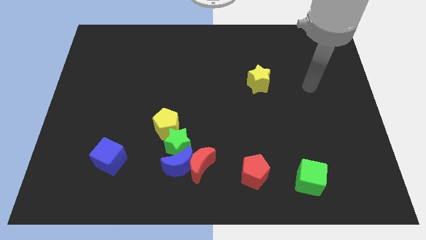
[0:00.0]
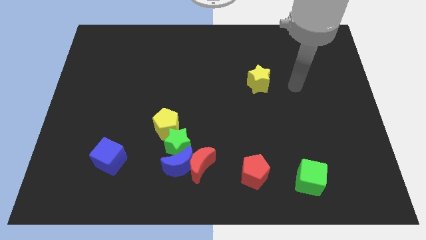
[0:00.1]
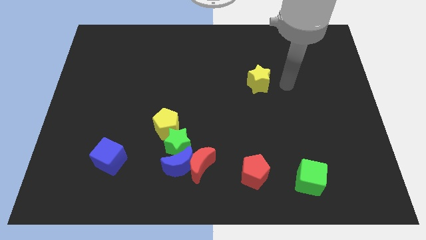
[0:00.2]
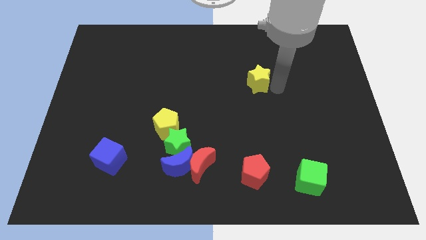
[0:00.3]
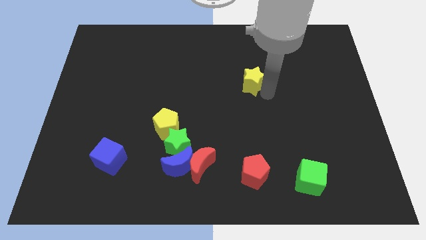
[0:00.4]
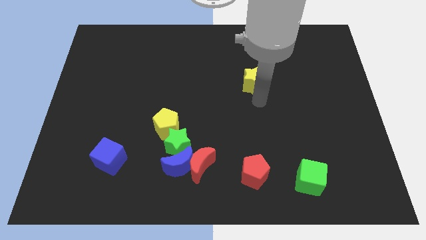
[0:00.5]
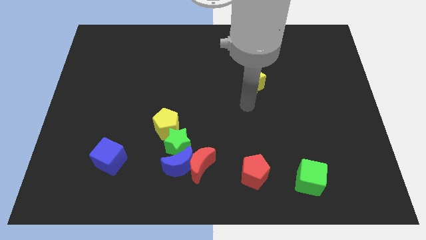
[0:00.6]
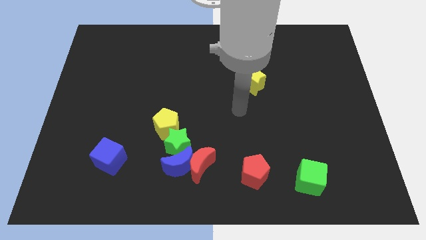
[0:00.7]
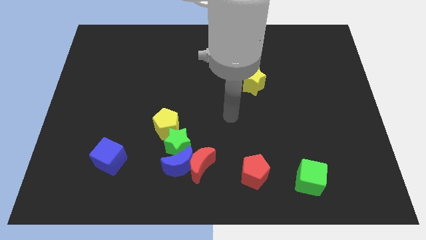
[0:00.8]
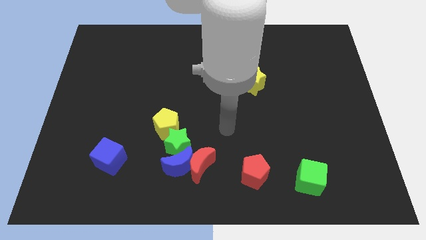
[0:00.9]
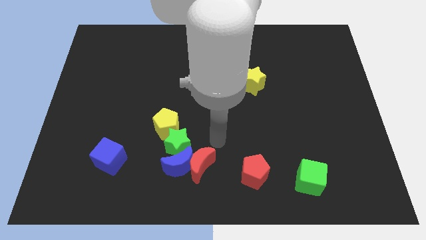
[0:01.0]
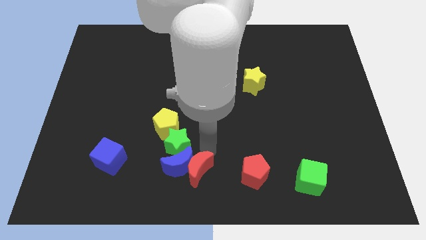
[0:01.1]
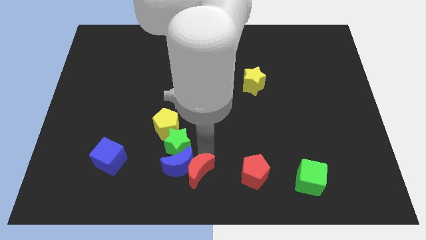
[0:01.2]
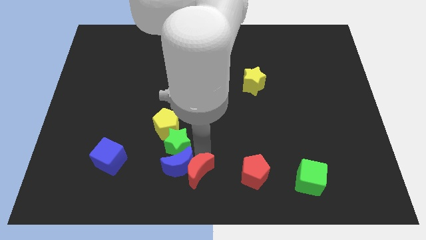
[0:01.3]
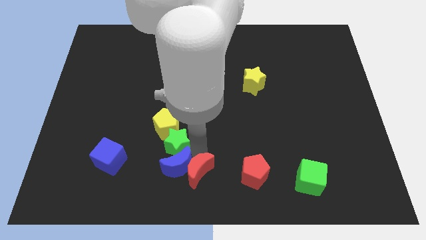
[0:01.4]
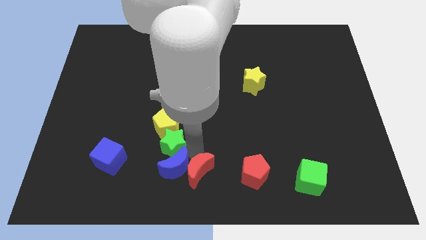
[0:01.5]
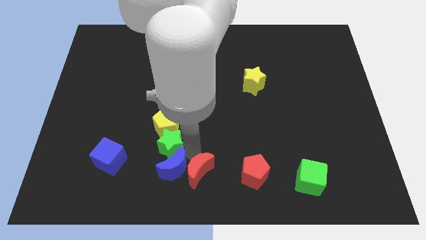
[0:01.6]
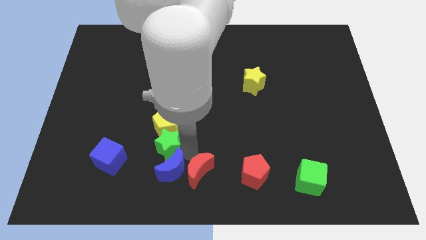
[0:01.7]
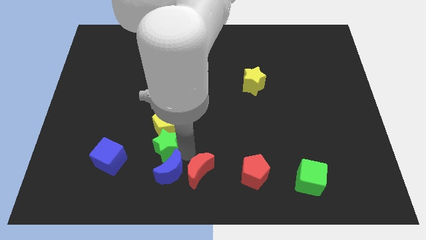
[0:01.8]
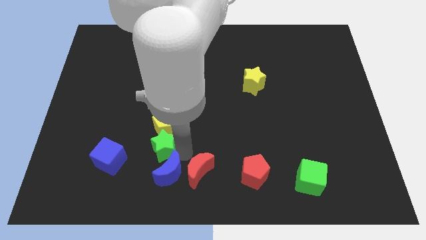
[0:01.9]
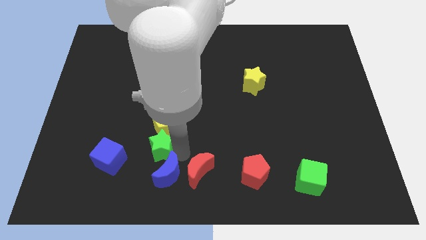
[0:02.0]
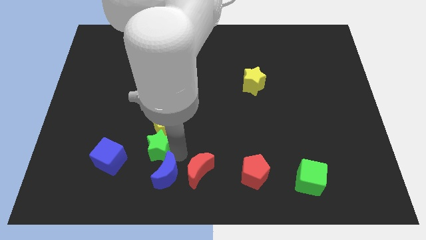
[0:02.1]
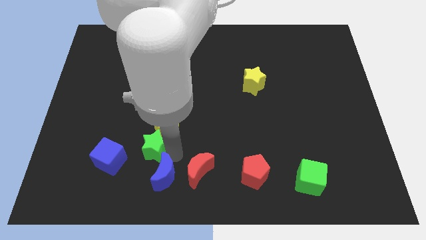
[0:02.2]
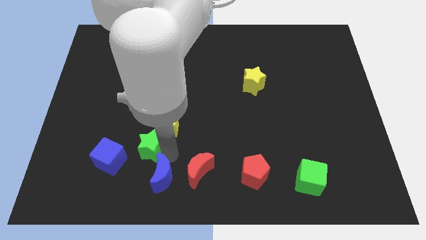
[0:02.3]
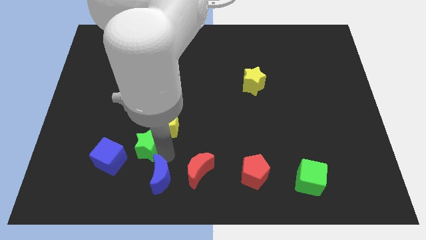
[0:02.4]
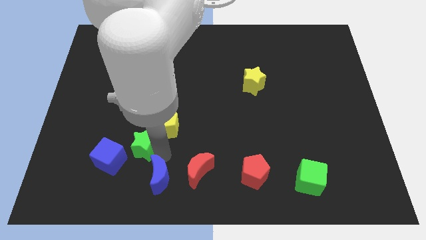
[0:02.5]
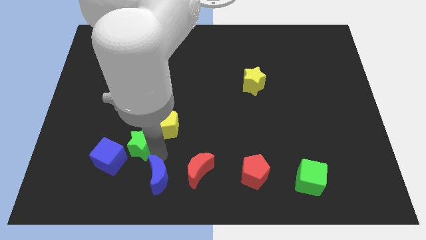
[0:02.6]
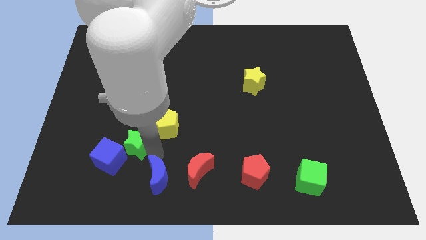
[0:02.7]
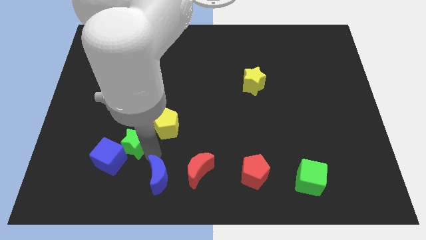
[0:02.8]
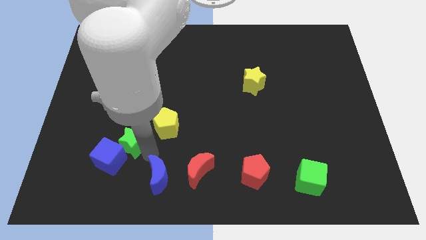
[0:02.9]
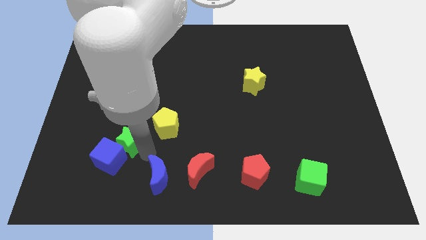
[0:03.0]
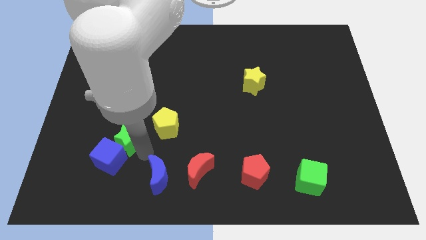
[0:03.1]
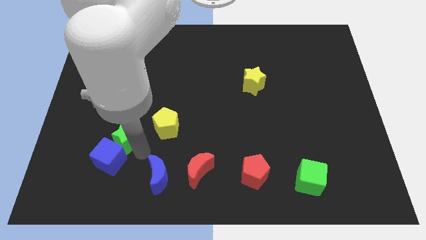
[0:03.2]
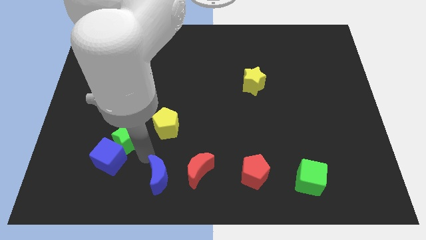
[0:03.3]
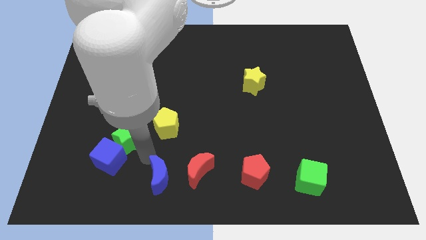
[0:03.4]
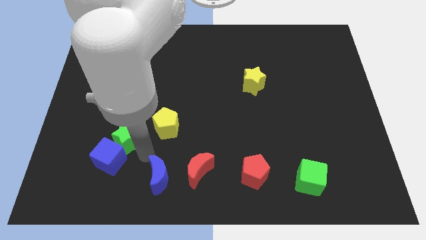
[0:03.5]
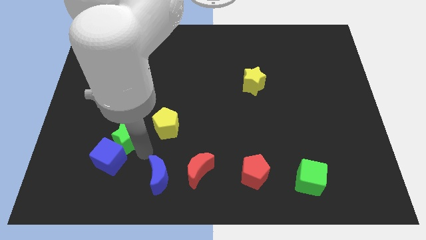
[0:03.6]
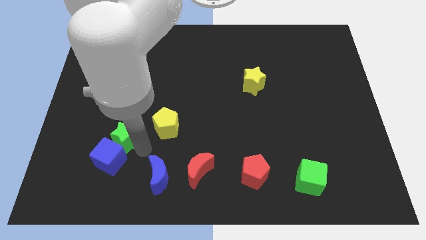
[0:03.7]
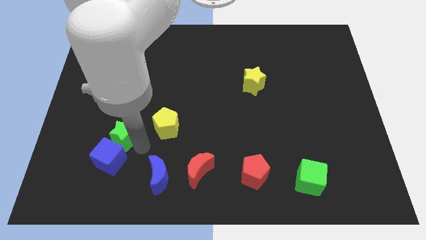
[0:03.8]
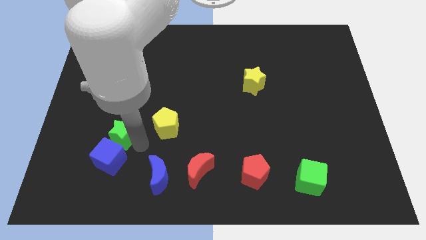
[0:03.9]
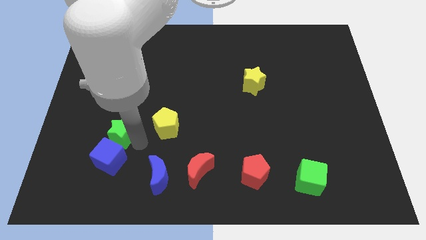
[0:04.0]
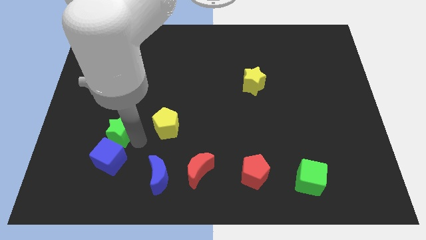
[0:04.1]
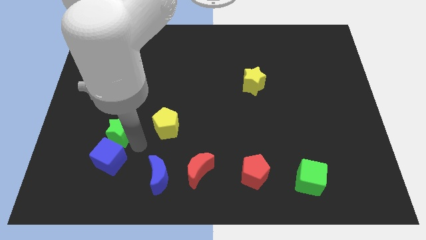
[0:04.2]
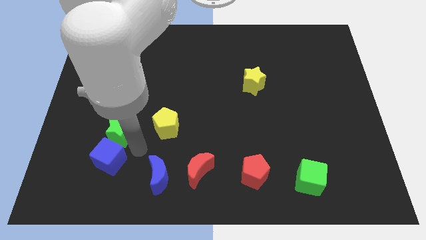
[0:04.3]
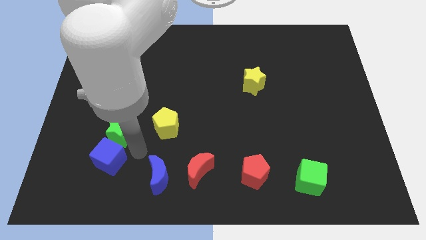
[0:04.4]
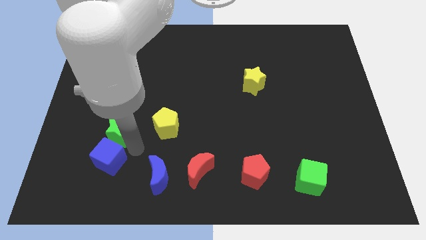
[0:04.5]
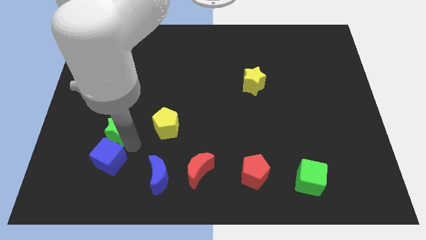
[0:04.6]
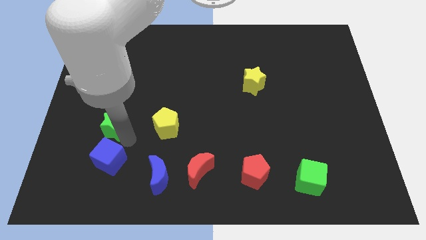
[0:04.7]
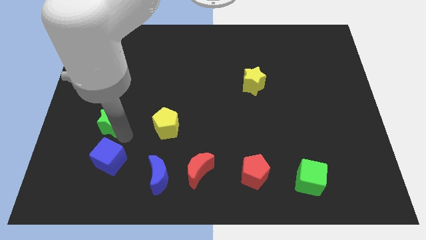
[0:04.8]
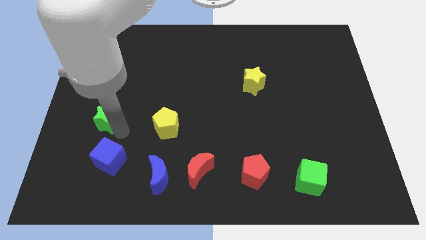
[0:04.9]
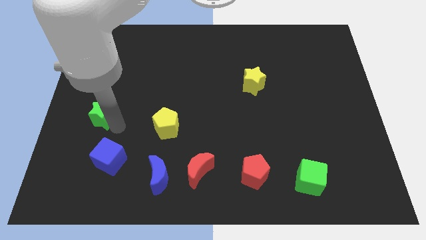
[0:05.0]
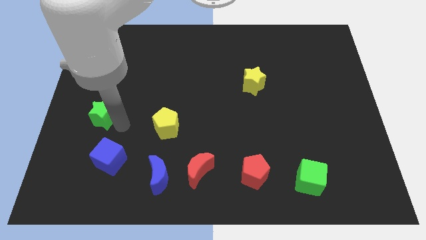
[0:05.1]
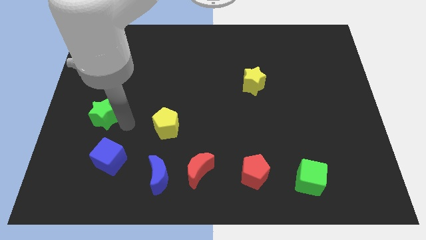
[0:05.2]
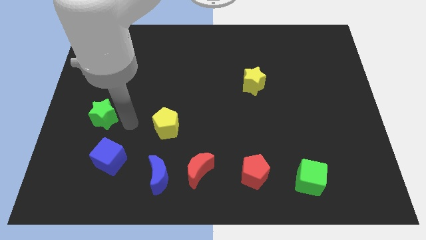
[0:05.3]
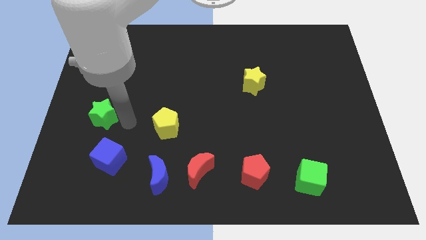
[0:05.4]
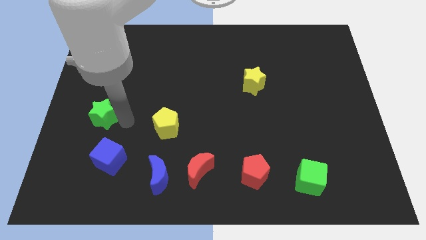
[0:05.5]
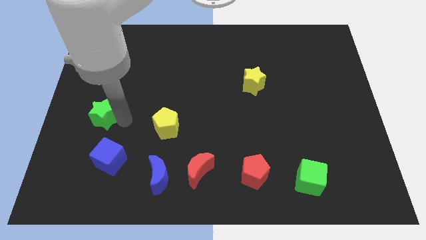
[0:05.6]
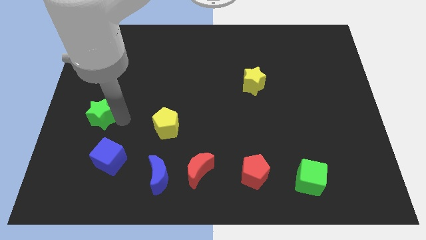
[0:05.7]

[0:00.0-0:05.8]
put the green star to the left side

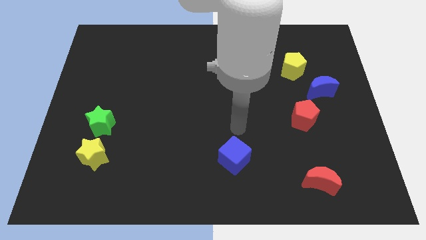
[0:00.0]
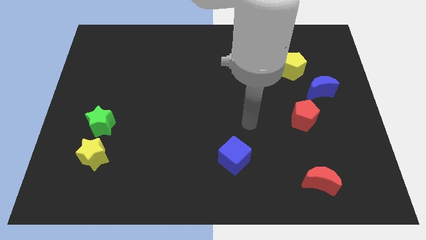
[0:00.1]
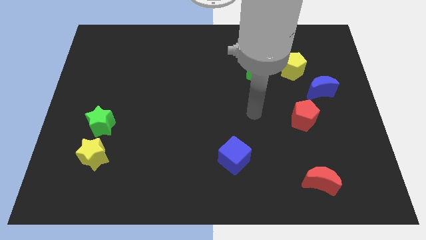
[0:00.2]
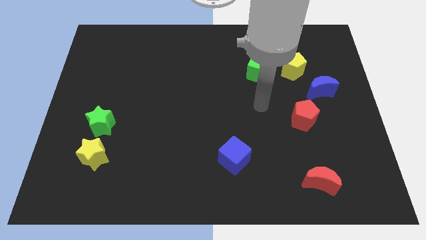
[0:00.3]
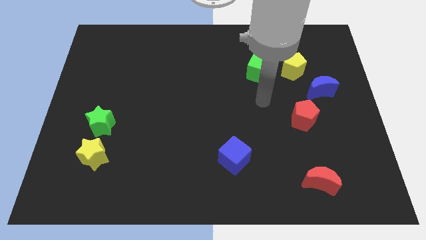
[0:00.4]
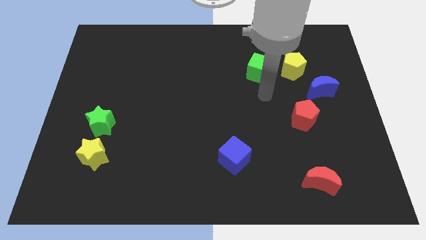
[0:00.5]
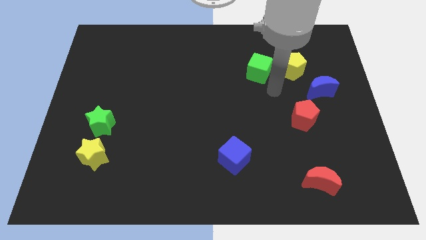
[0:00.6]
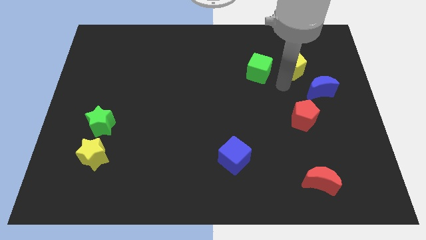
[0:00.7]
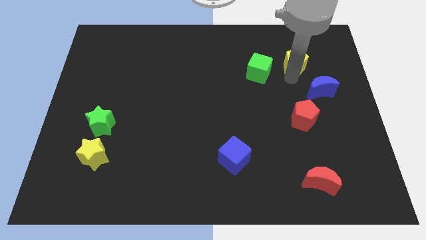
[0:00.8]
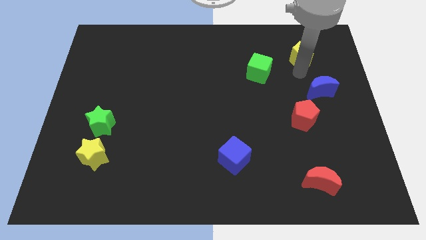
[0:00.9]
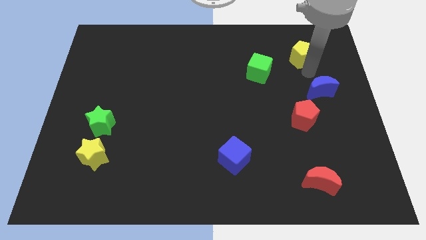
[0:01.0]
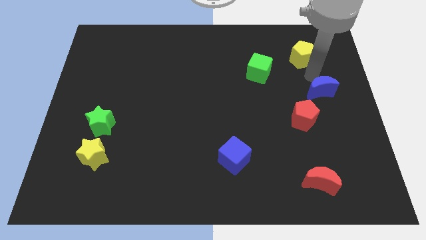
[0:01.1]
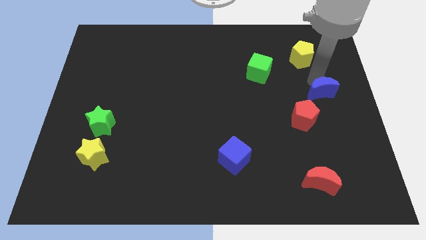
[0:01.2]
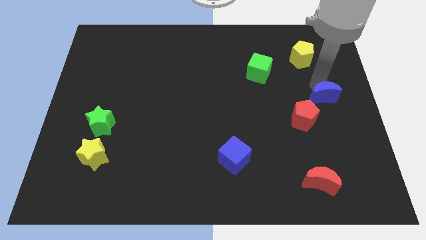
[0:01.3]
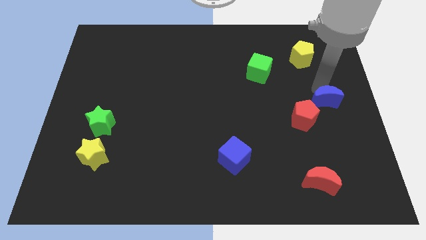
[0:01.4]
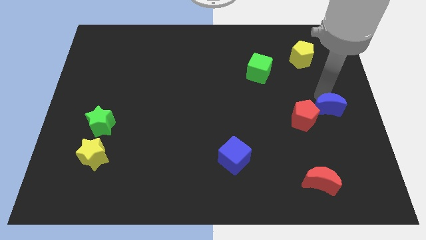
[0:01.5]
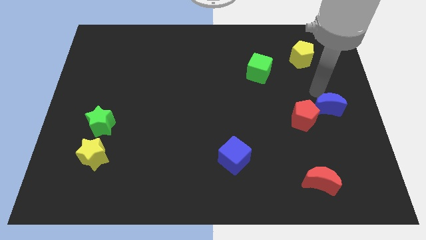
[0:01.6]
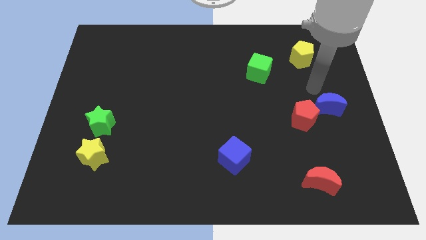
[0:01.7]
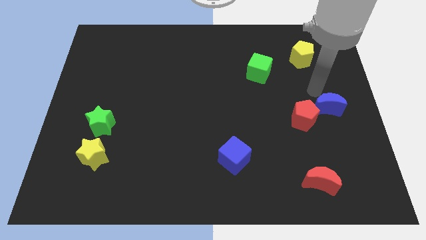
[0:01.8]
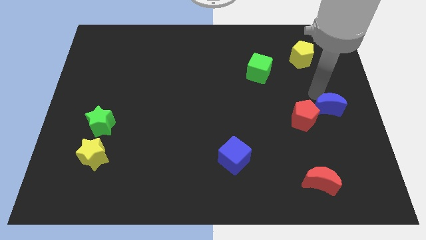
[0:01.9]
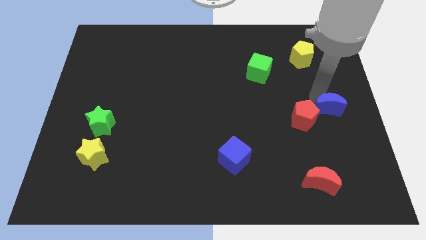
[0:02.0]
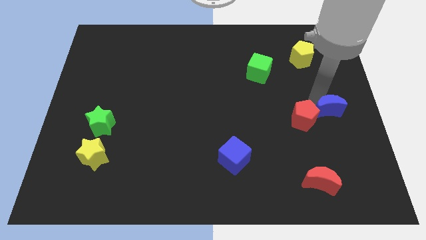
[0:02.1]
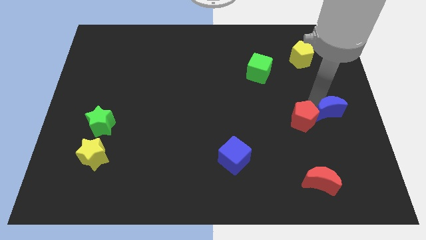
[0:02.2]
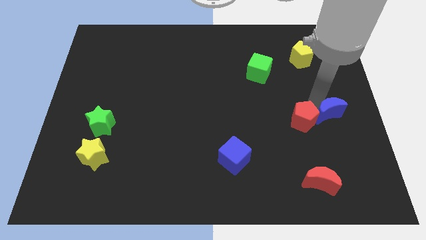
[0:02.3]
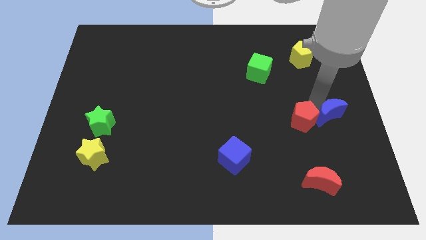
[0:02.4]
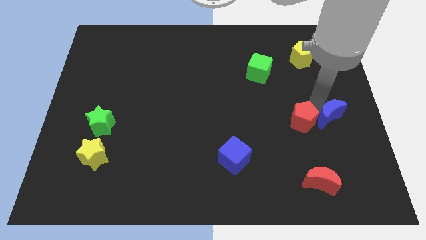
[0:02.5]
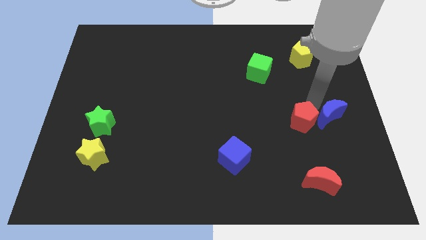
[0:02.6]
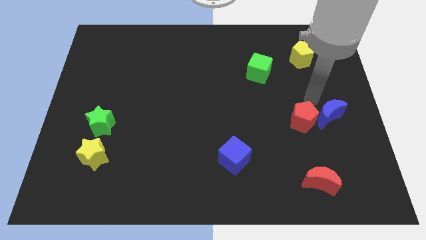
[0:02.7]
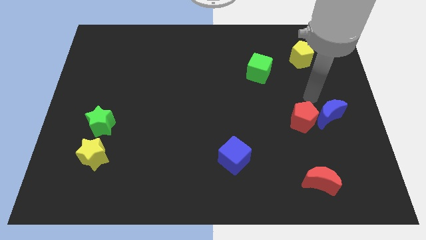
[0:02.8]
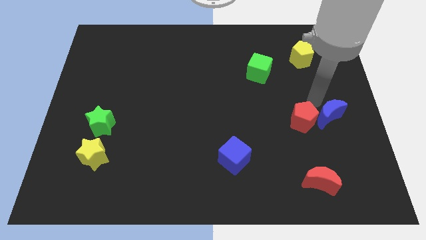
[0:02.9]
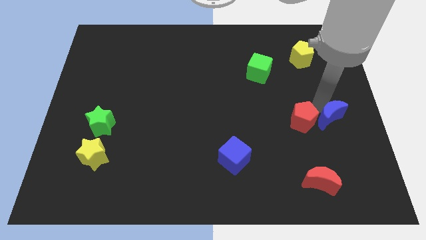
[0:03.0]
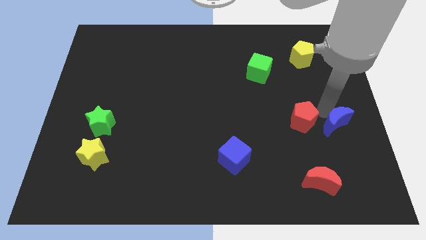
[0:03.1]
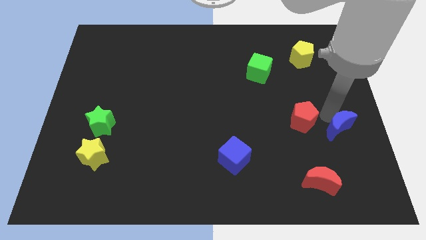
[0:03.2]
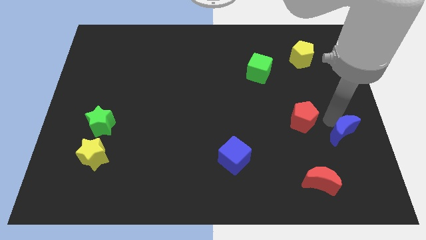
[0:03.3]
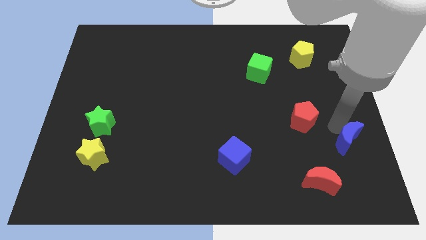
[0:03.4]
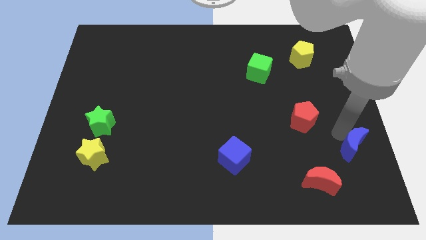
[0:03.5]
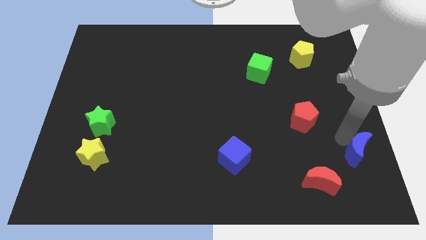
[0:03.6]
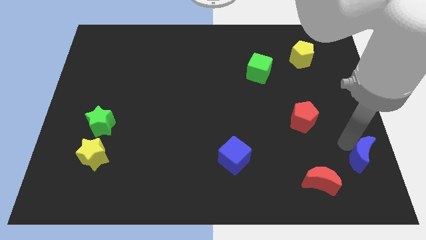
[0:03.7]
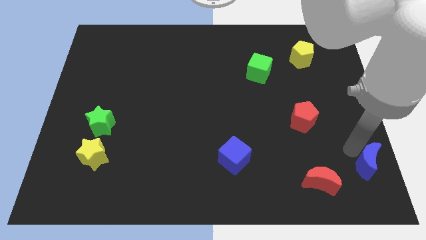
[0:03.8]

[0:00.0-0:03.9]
slide the blue moon to the bottom right corner
